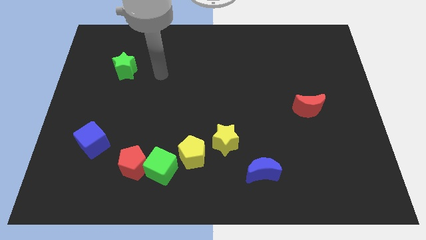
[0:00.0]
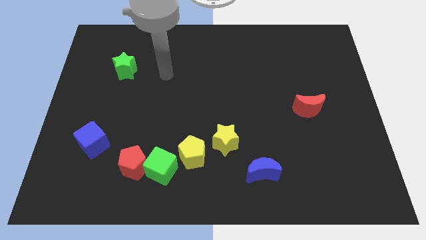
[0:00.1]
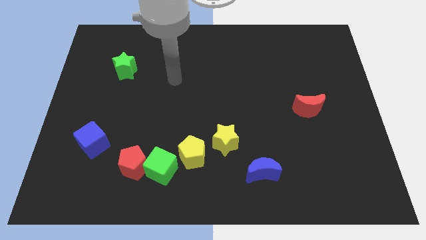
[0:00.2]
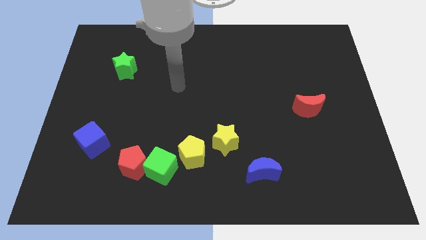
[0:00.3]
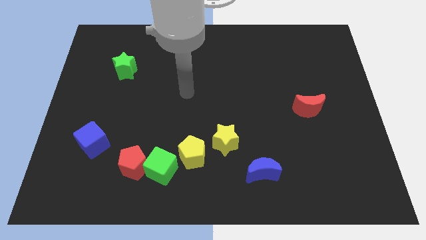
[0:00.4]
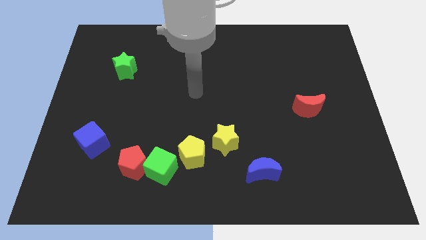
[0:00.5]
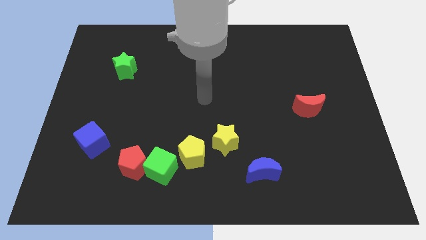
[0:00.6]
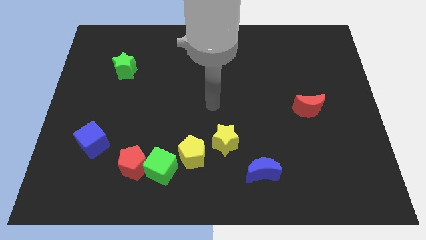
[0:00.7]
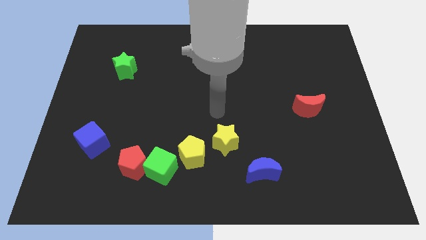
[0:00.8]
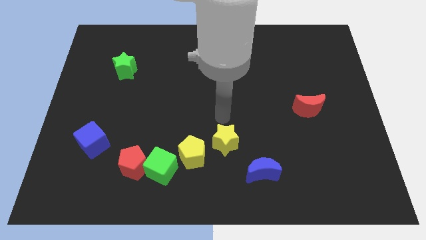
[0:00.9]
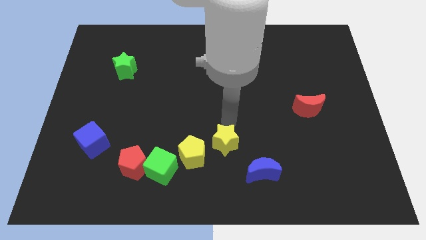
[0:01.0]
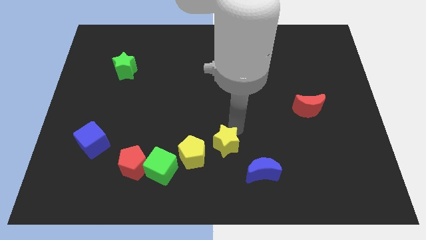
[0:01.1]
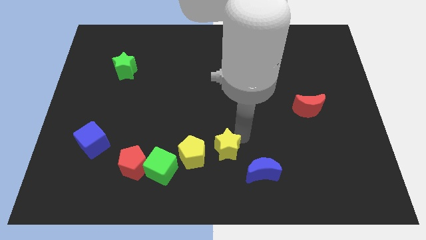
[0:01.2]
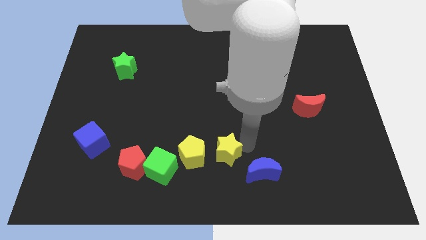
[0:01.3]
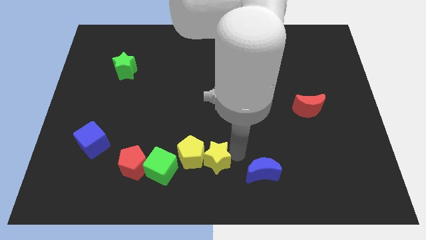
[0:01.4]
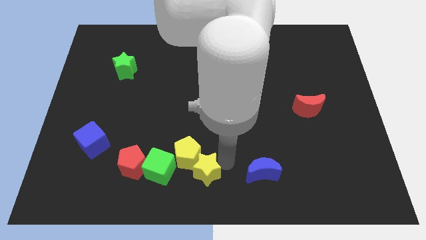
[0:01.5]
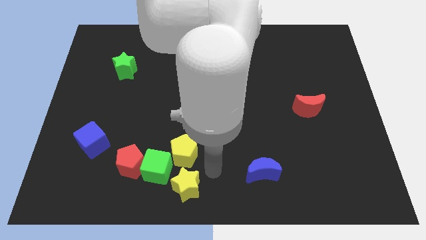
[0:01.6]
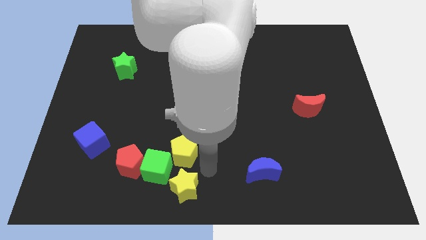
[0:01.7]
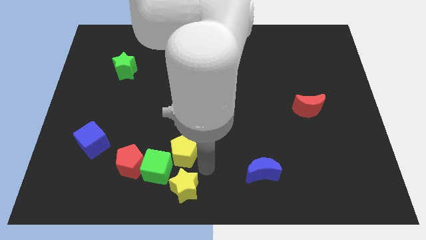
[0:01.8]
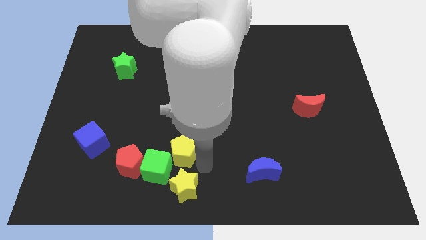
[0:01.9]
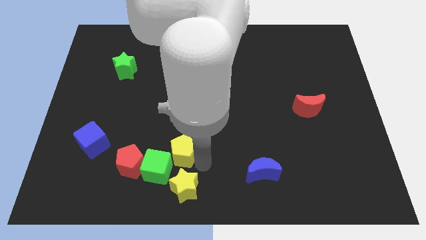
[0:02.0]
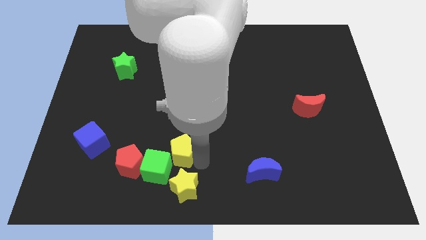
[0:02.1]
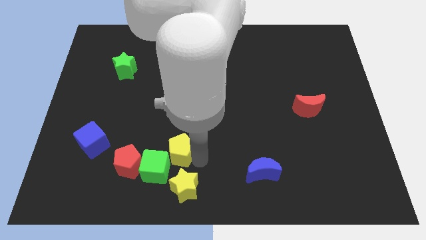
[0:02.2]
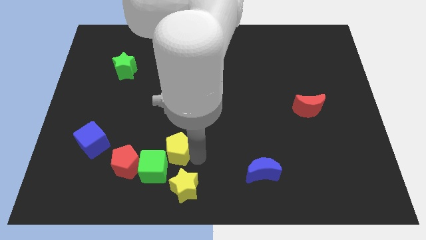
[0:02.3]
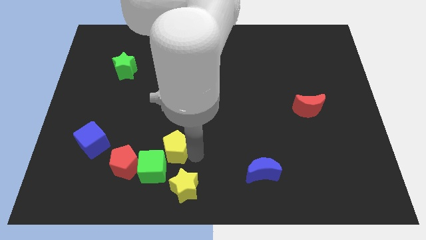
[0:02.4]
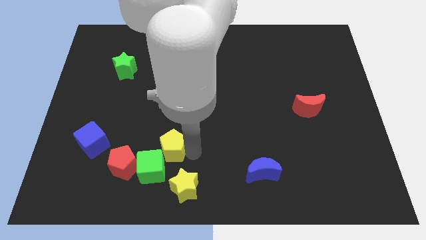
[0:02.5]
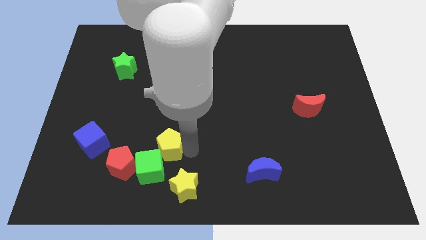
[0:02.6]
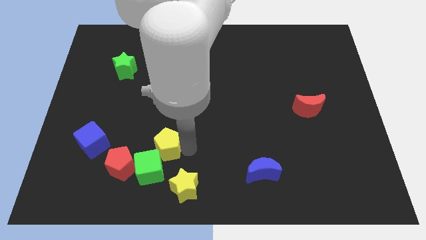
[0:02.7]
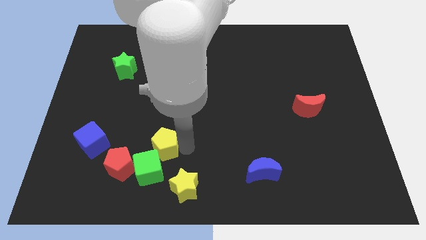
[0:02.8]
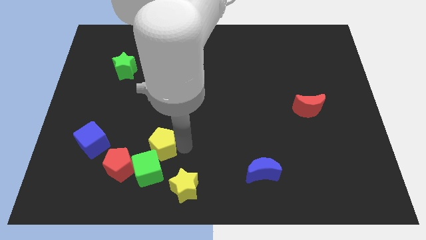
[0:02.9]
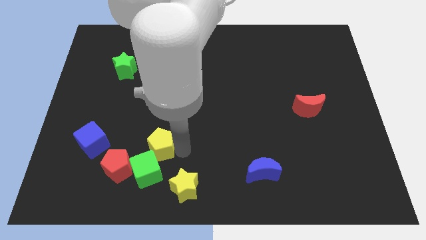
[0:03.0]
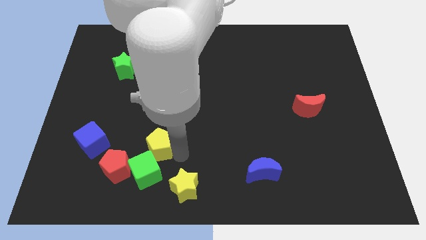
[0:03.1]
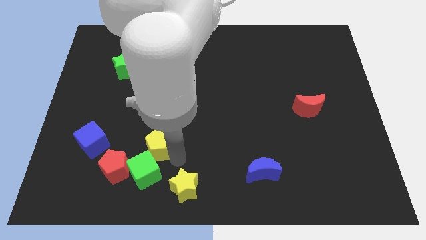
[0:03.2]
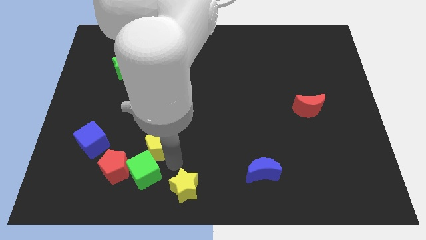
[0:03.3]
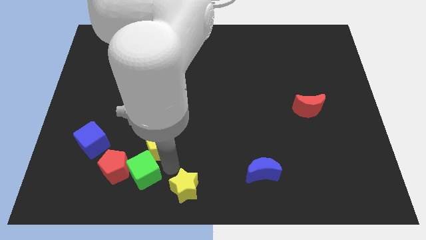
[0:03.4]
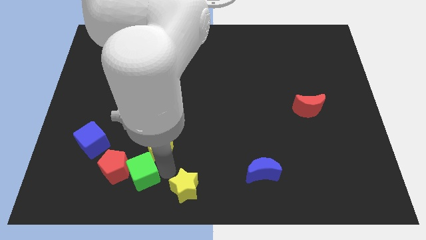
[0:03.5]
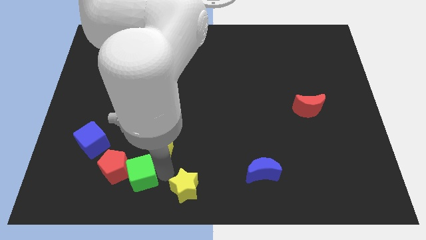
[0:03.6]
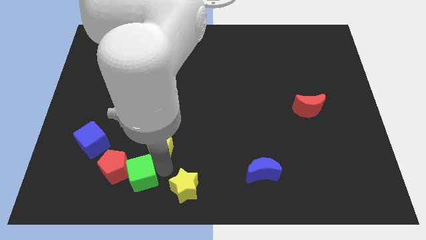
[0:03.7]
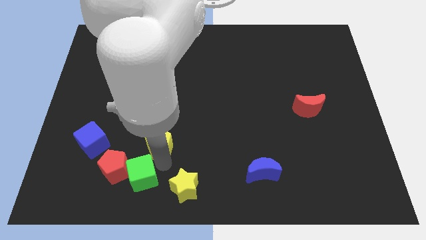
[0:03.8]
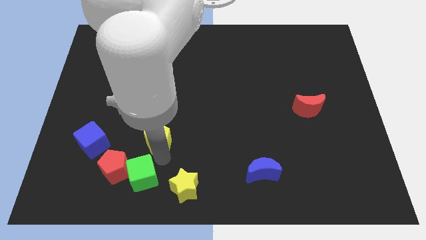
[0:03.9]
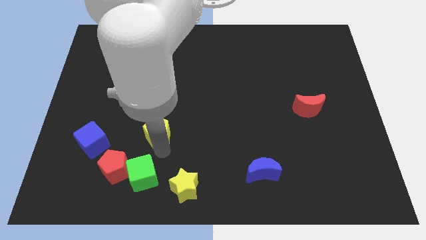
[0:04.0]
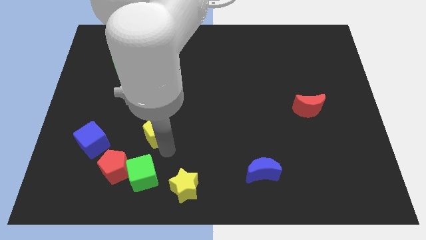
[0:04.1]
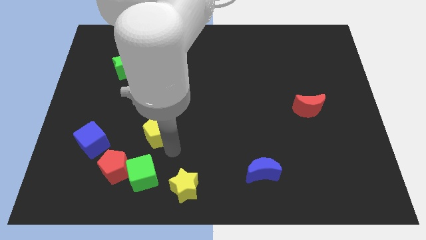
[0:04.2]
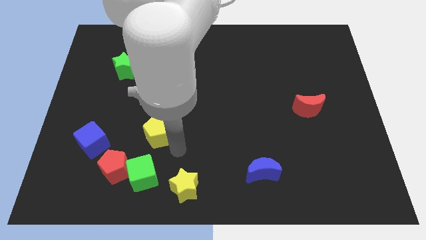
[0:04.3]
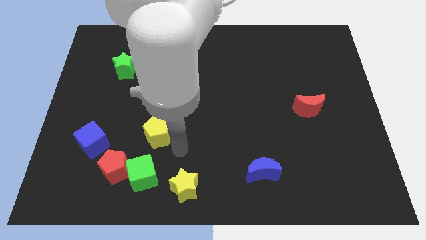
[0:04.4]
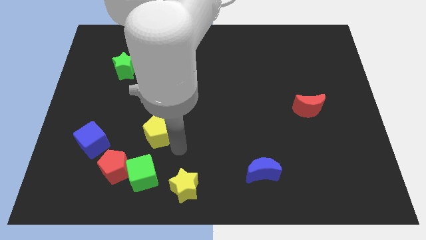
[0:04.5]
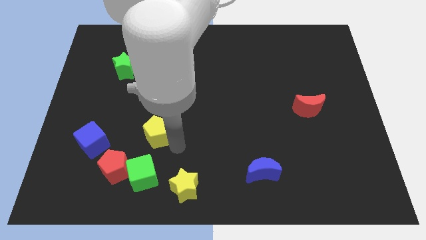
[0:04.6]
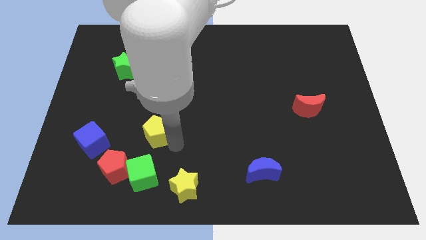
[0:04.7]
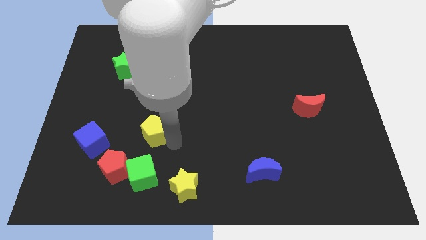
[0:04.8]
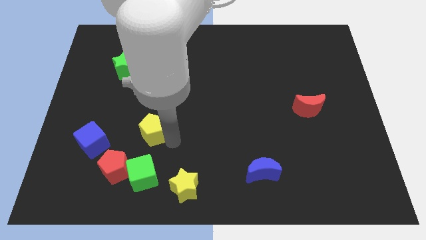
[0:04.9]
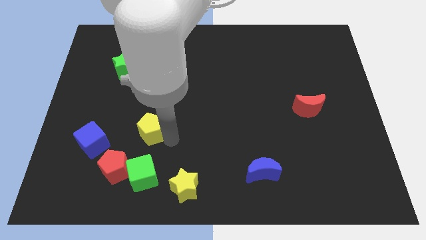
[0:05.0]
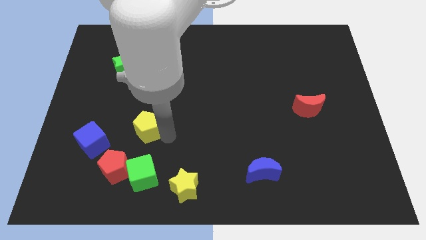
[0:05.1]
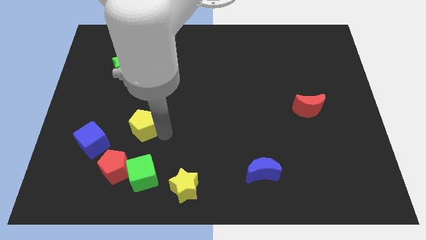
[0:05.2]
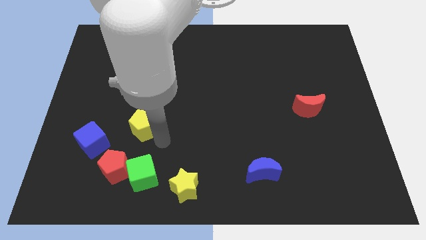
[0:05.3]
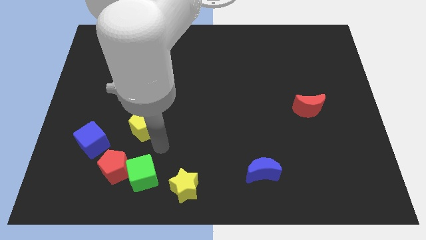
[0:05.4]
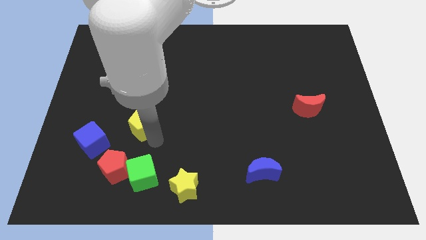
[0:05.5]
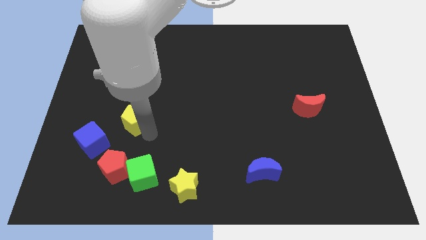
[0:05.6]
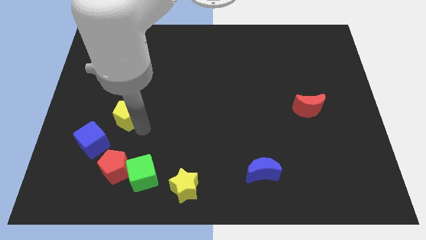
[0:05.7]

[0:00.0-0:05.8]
put the yellow pentagon to the bottom of the green star
